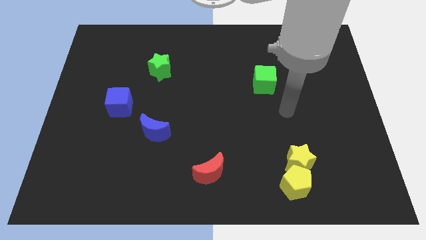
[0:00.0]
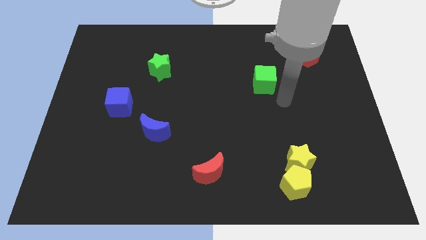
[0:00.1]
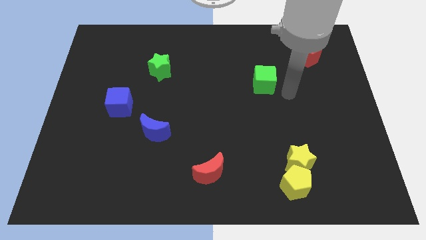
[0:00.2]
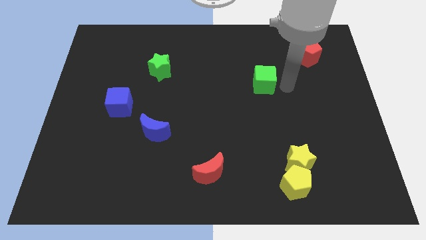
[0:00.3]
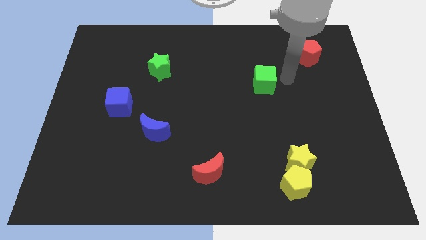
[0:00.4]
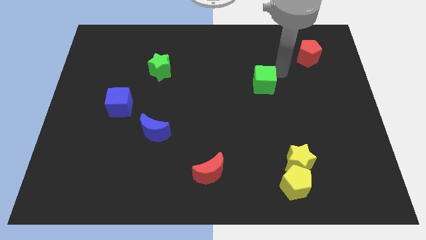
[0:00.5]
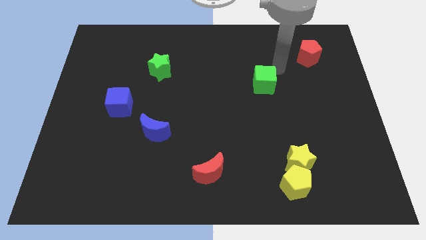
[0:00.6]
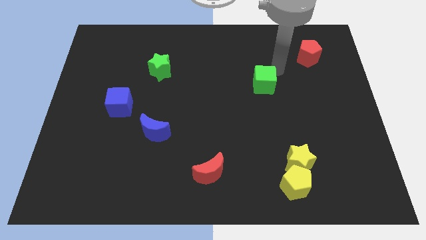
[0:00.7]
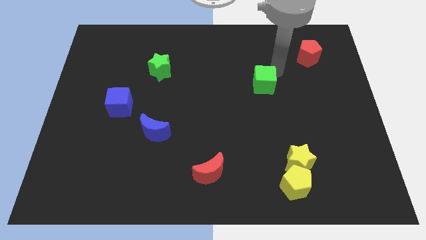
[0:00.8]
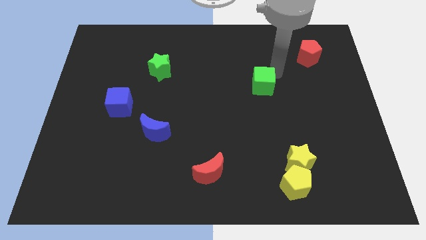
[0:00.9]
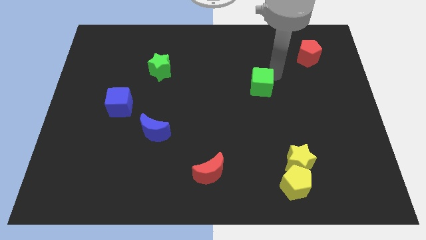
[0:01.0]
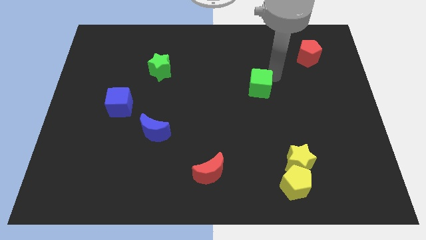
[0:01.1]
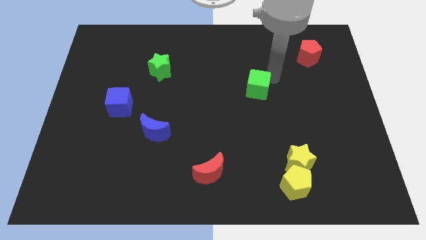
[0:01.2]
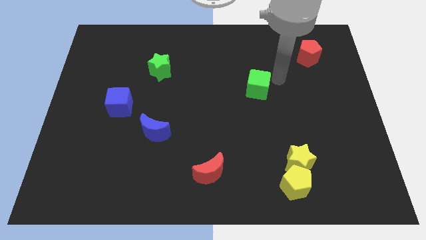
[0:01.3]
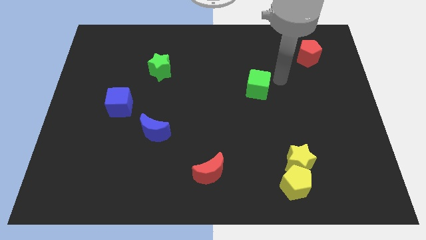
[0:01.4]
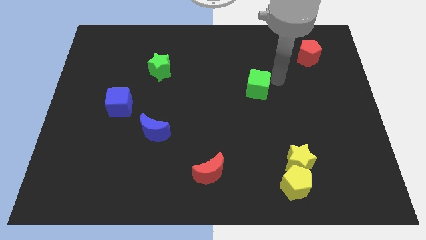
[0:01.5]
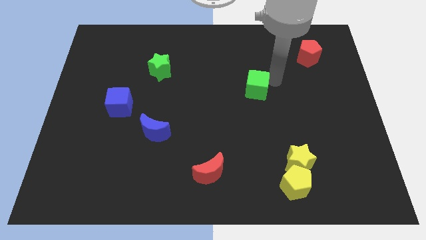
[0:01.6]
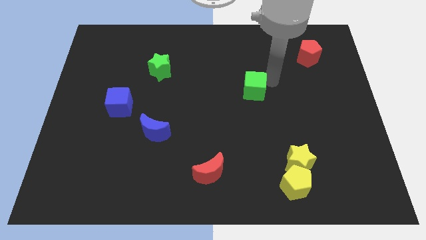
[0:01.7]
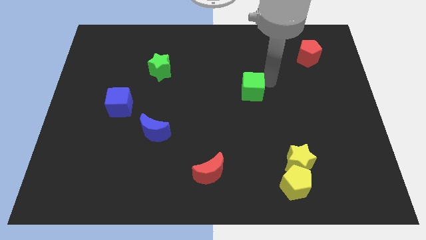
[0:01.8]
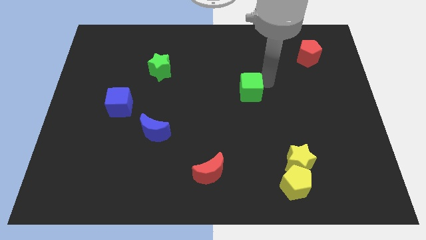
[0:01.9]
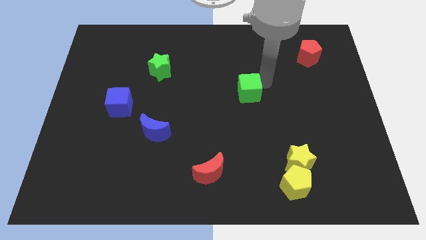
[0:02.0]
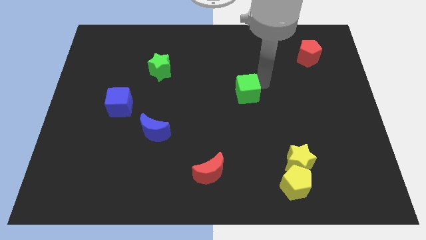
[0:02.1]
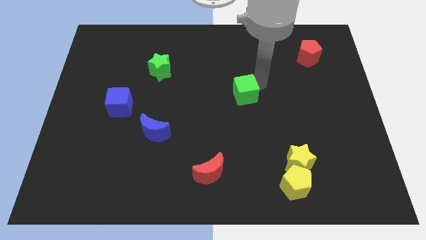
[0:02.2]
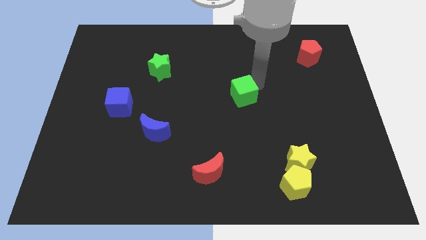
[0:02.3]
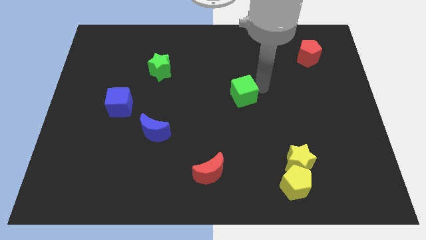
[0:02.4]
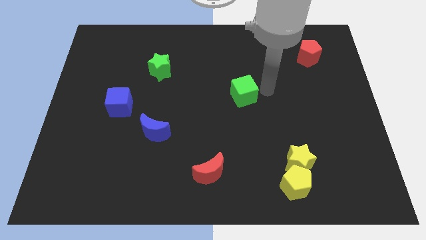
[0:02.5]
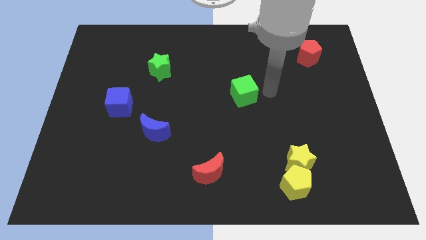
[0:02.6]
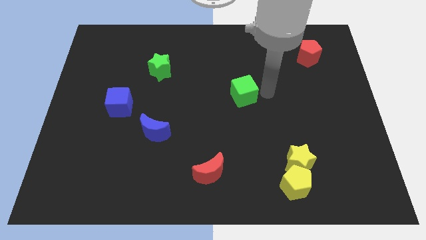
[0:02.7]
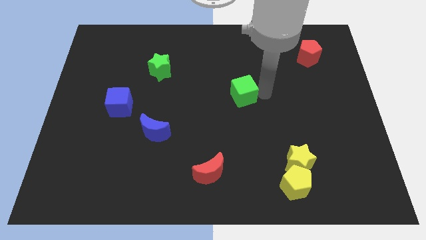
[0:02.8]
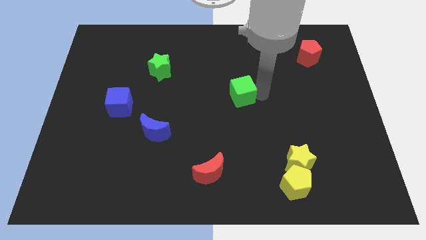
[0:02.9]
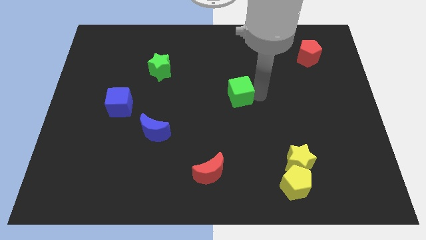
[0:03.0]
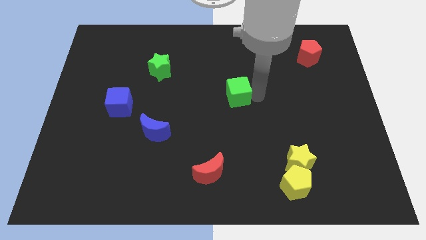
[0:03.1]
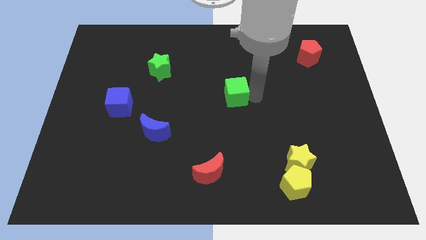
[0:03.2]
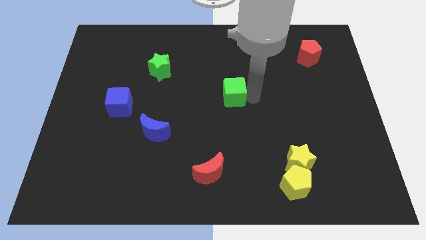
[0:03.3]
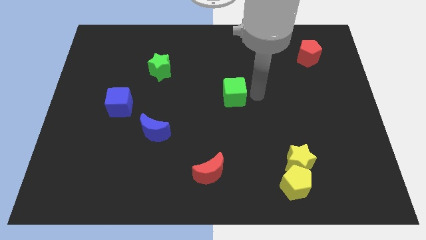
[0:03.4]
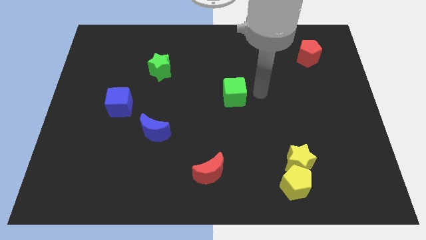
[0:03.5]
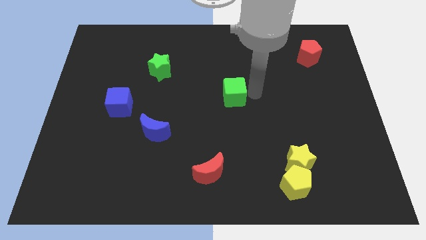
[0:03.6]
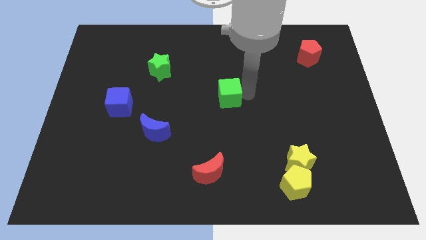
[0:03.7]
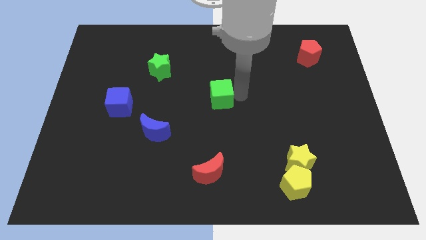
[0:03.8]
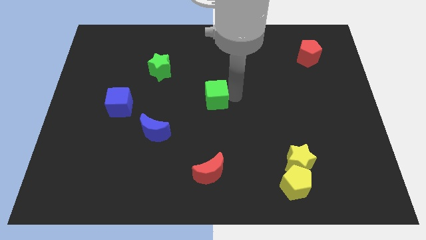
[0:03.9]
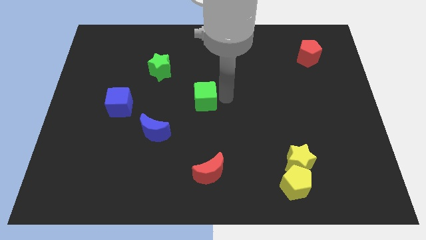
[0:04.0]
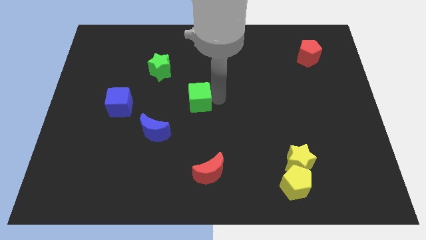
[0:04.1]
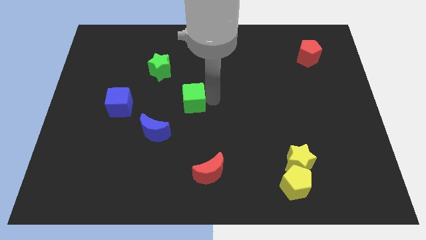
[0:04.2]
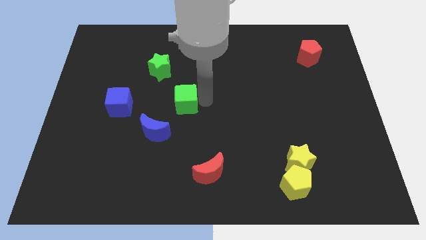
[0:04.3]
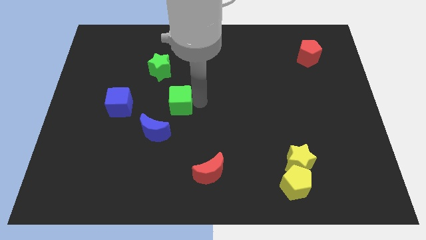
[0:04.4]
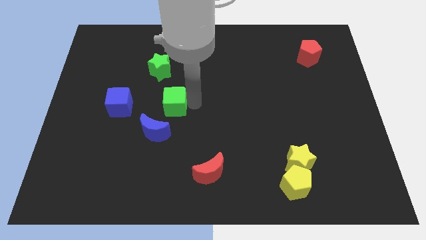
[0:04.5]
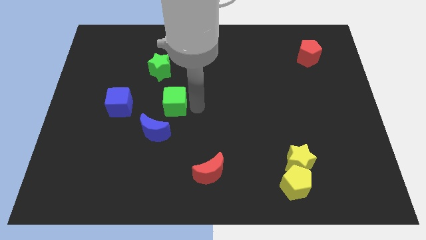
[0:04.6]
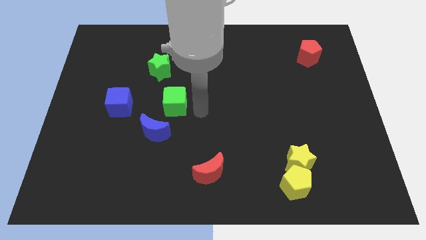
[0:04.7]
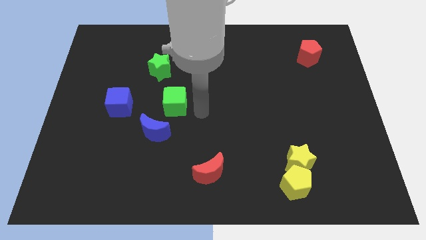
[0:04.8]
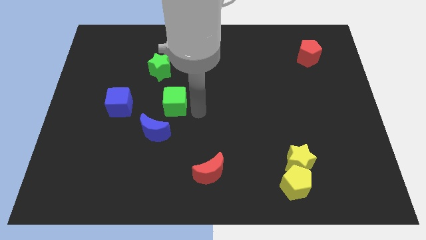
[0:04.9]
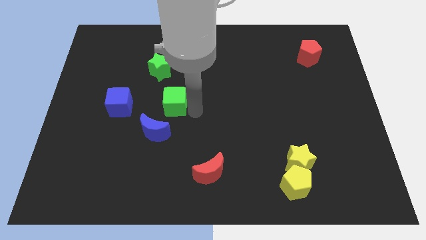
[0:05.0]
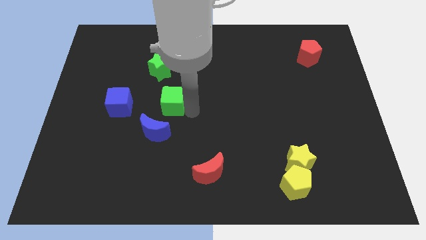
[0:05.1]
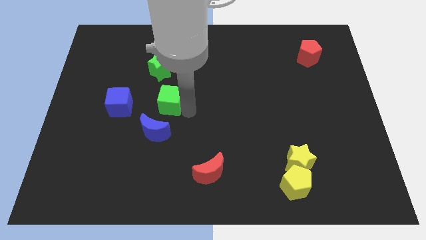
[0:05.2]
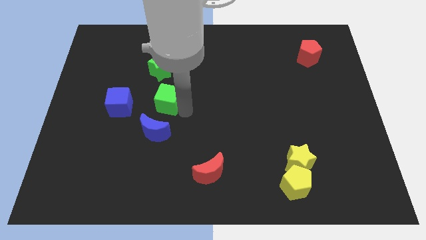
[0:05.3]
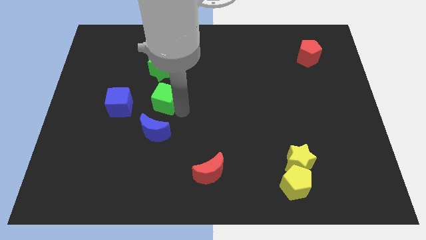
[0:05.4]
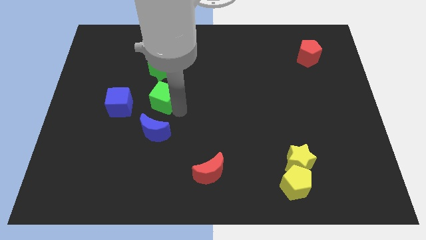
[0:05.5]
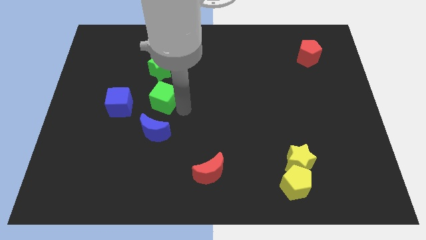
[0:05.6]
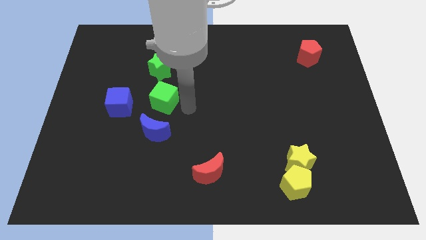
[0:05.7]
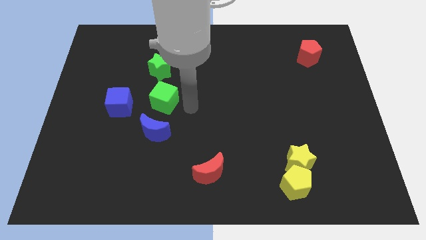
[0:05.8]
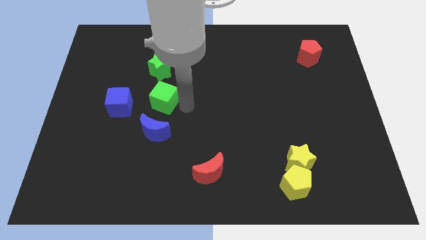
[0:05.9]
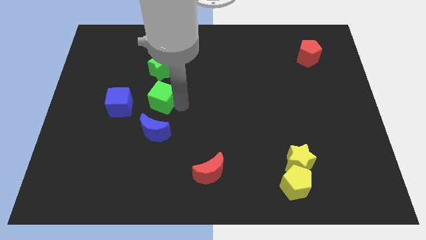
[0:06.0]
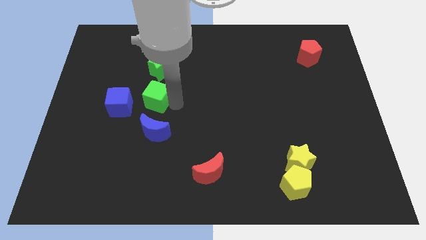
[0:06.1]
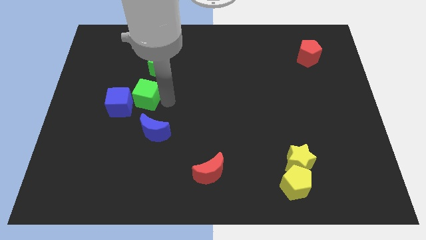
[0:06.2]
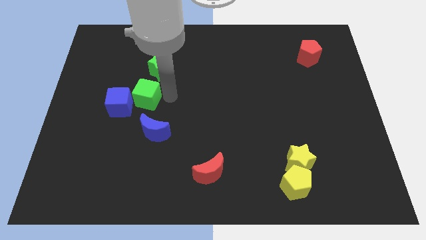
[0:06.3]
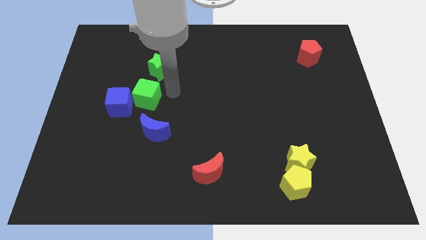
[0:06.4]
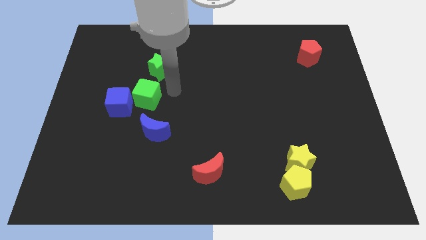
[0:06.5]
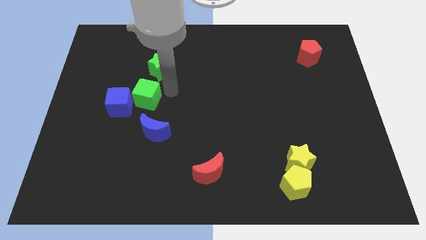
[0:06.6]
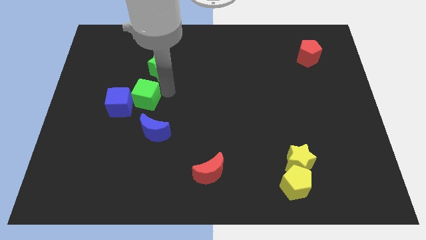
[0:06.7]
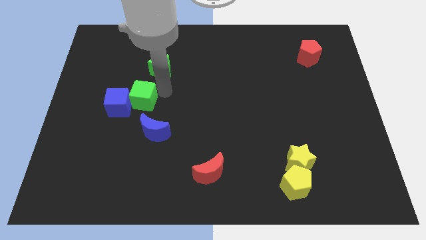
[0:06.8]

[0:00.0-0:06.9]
push the green cube close to the blue cube
